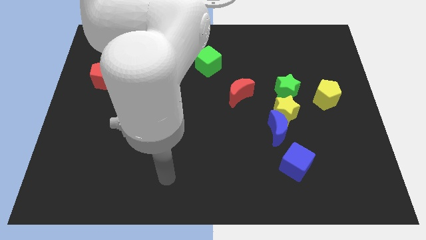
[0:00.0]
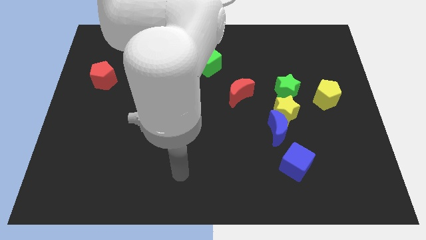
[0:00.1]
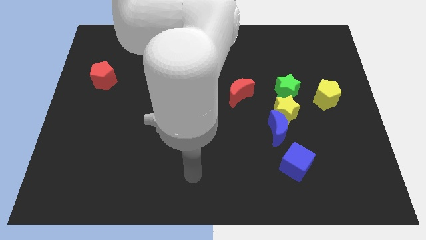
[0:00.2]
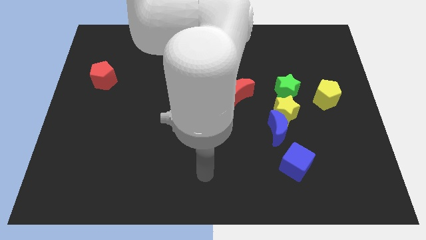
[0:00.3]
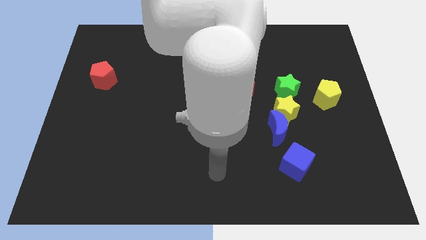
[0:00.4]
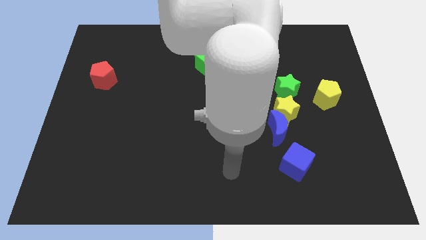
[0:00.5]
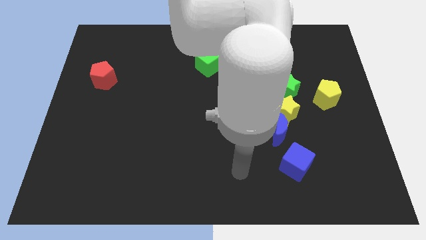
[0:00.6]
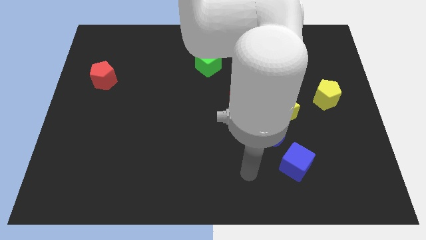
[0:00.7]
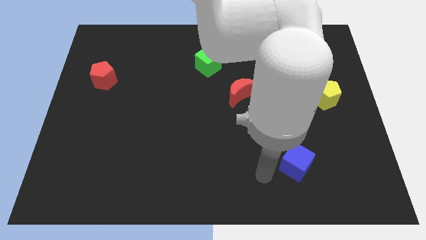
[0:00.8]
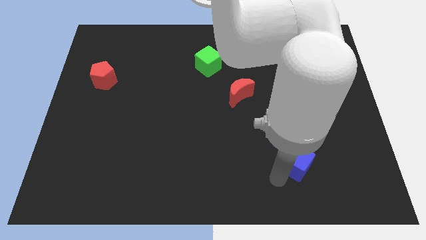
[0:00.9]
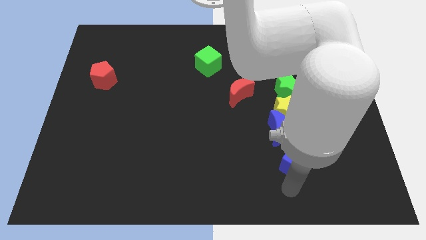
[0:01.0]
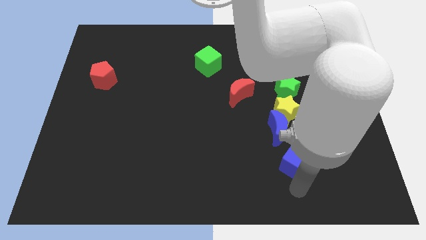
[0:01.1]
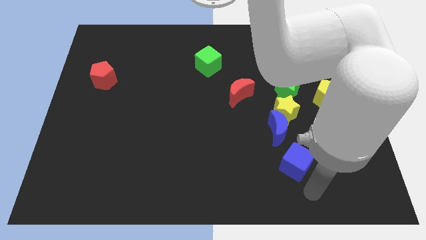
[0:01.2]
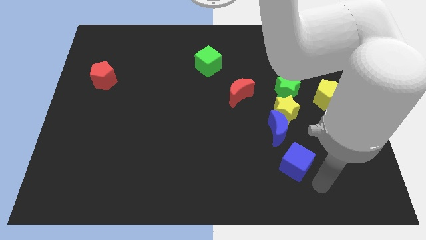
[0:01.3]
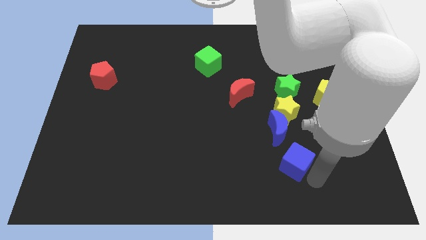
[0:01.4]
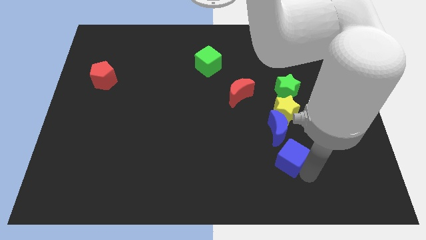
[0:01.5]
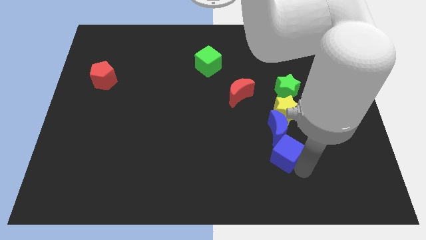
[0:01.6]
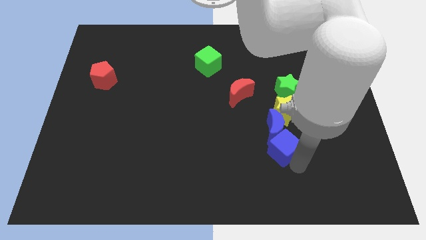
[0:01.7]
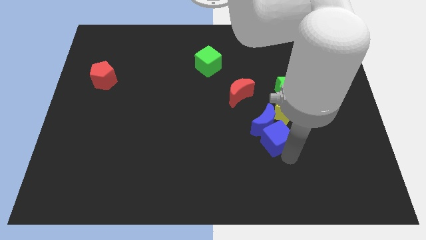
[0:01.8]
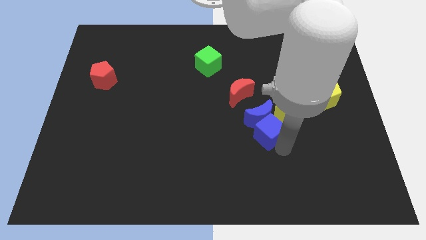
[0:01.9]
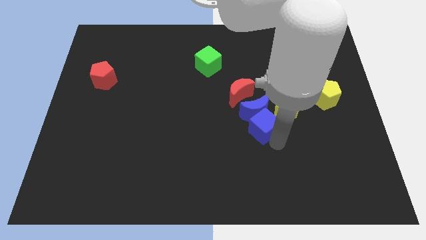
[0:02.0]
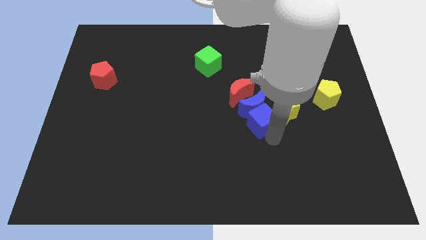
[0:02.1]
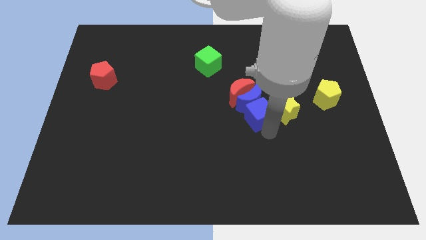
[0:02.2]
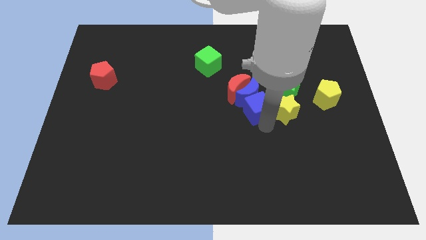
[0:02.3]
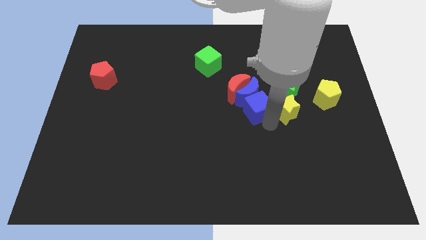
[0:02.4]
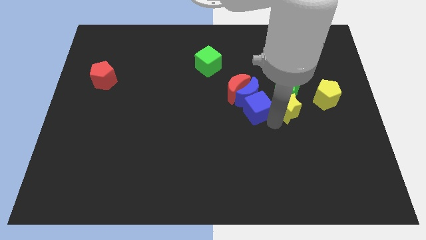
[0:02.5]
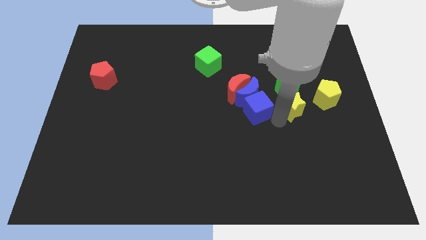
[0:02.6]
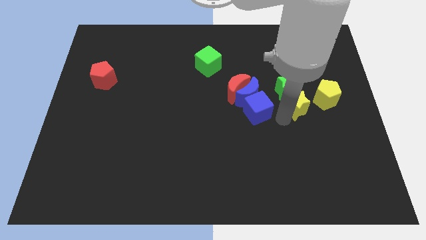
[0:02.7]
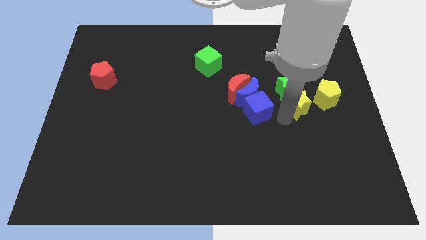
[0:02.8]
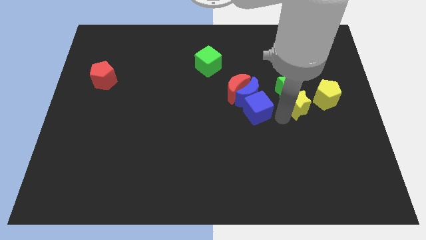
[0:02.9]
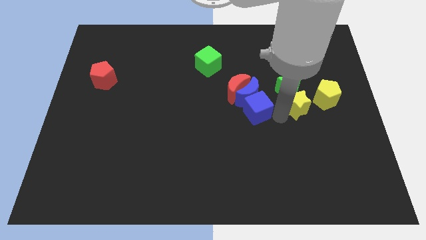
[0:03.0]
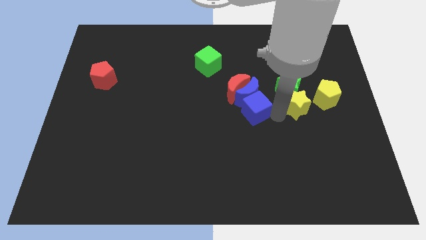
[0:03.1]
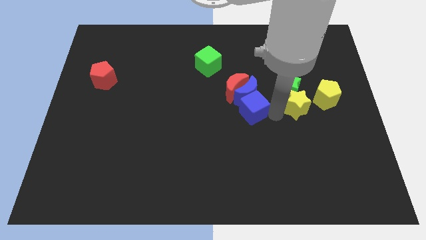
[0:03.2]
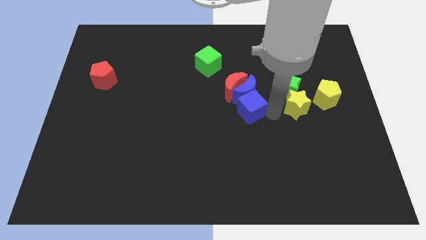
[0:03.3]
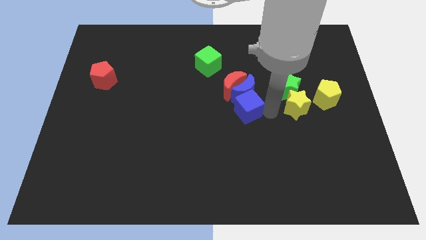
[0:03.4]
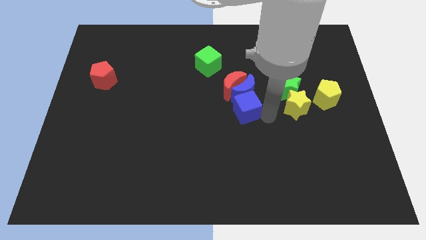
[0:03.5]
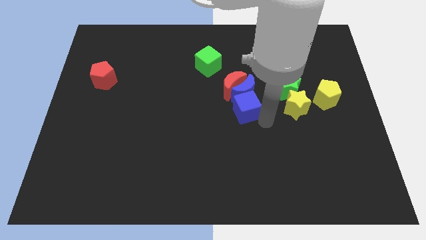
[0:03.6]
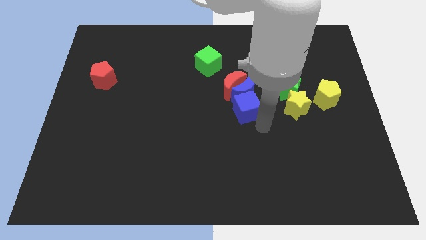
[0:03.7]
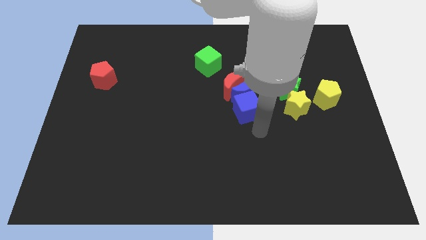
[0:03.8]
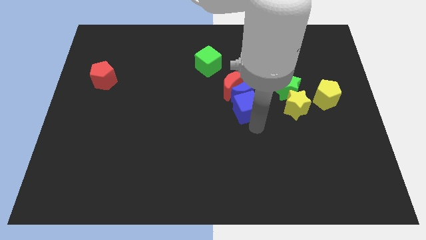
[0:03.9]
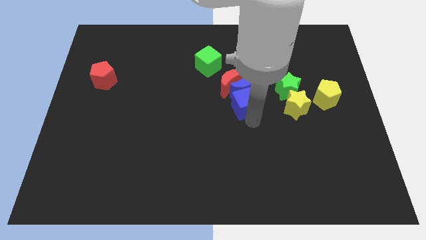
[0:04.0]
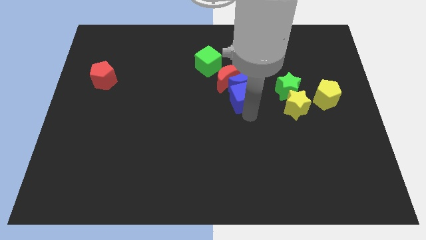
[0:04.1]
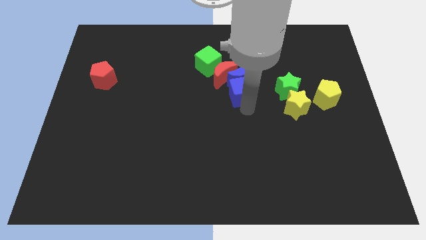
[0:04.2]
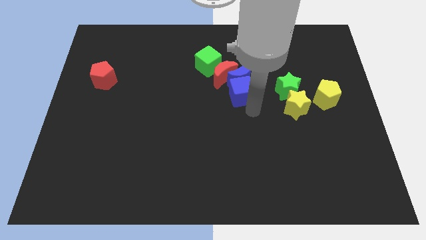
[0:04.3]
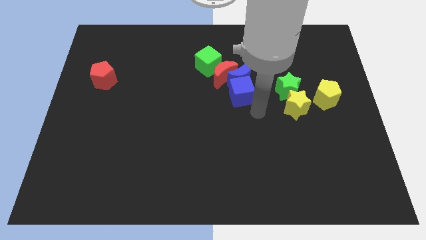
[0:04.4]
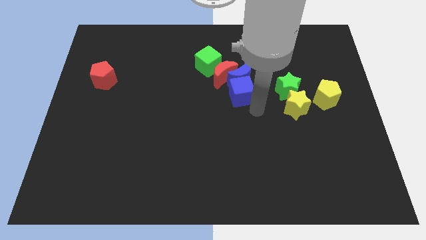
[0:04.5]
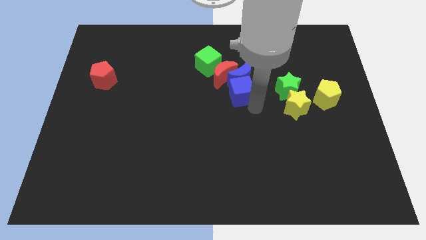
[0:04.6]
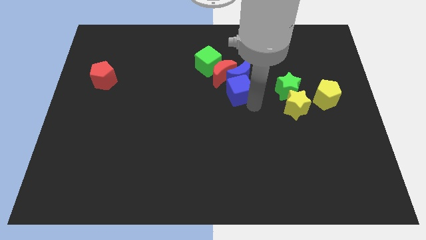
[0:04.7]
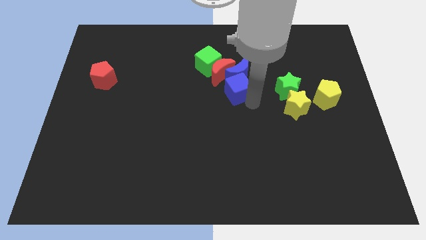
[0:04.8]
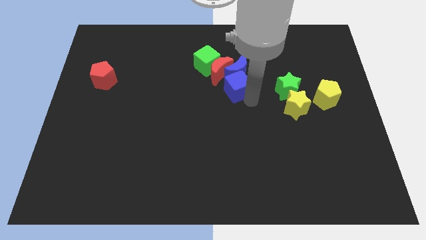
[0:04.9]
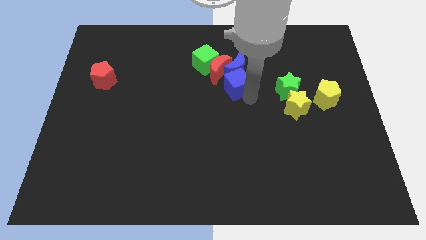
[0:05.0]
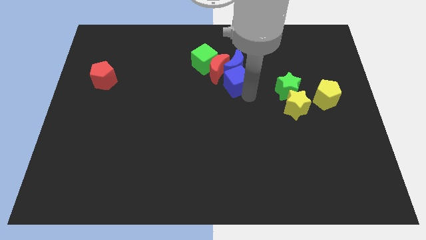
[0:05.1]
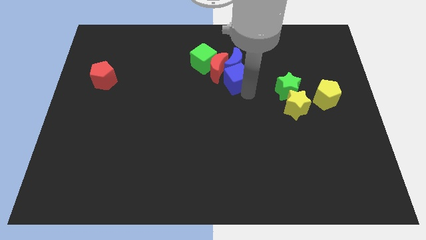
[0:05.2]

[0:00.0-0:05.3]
put the blue cube close to the red moon

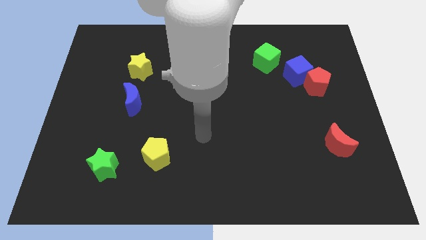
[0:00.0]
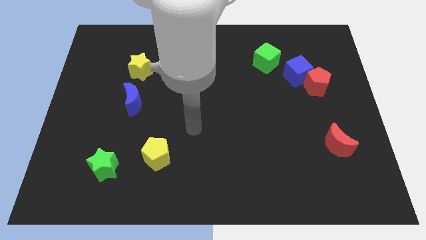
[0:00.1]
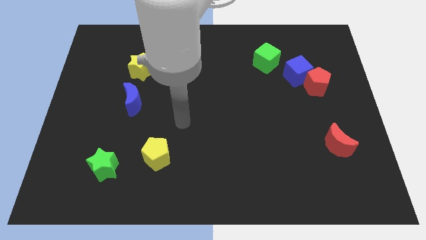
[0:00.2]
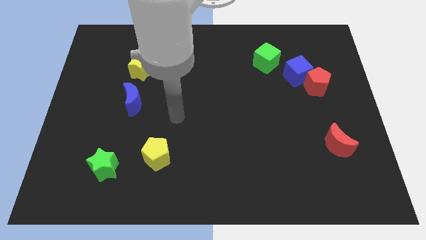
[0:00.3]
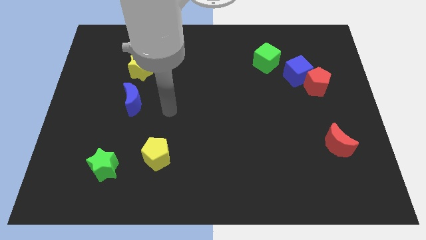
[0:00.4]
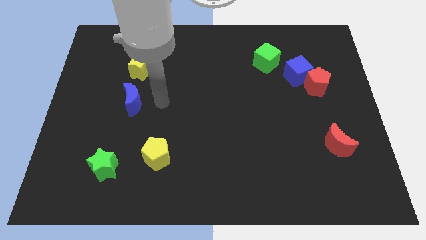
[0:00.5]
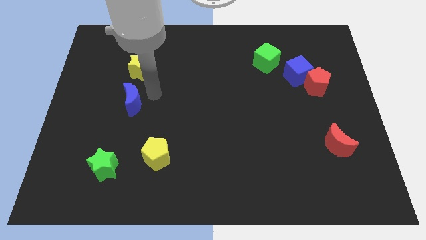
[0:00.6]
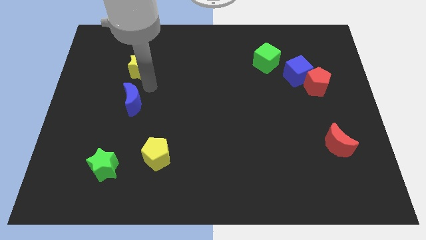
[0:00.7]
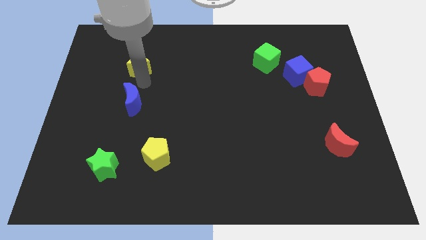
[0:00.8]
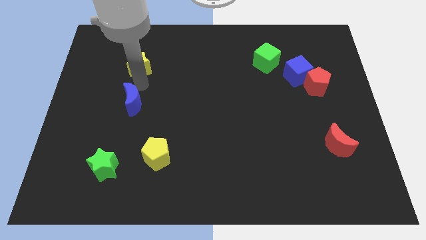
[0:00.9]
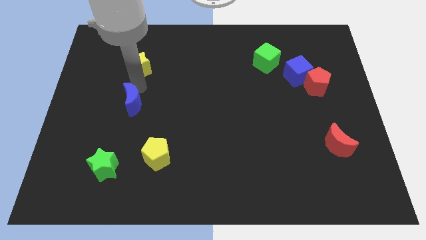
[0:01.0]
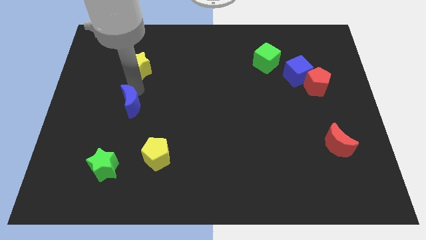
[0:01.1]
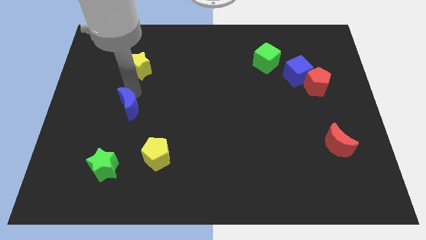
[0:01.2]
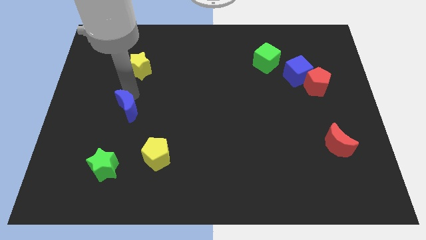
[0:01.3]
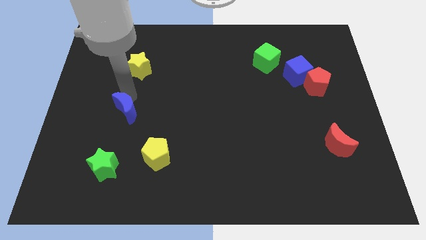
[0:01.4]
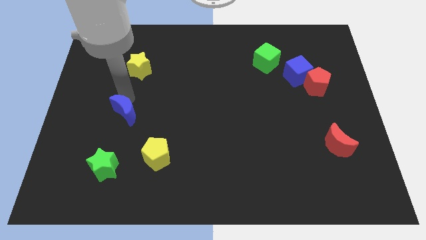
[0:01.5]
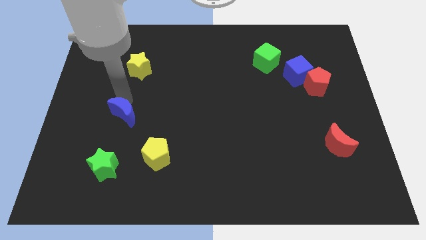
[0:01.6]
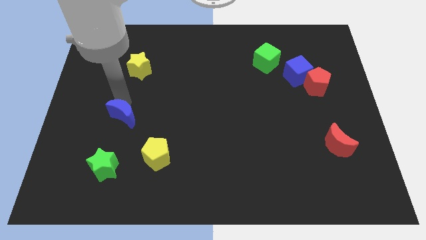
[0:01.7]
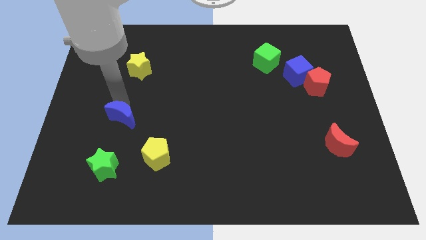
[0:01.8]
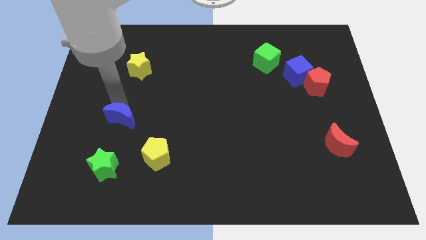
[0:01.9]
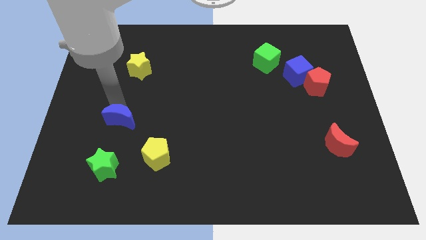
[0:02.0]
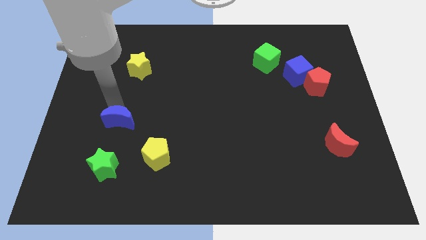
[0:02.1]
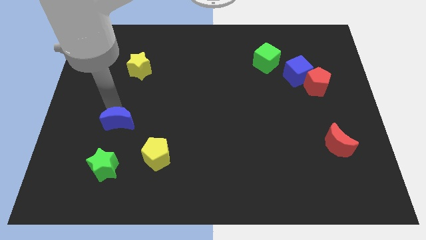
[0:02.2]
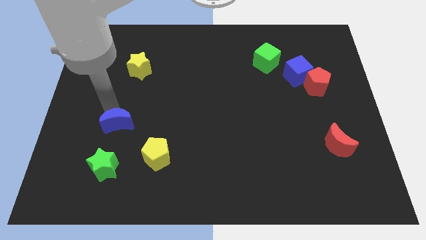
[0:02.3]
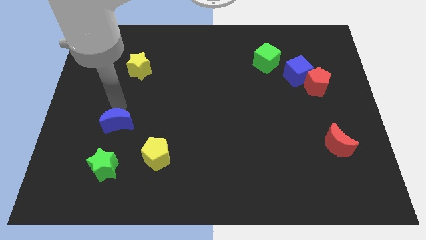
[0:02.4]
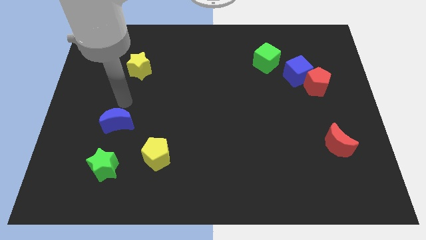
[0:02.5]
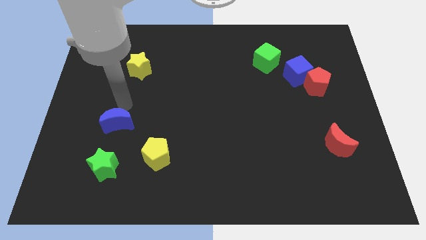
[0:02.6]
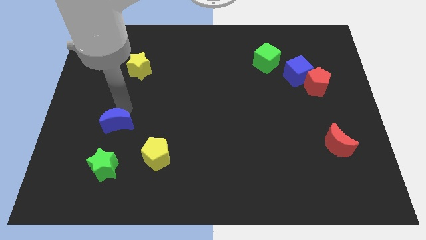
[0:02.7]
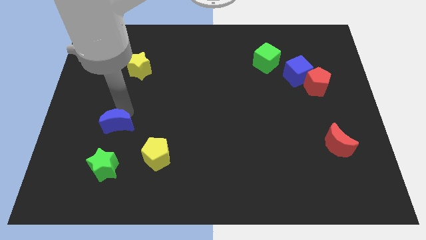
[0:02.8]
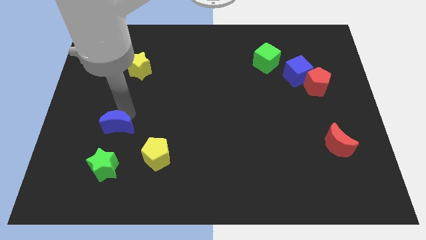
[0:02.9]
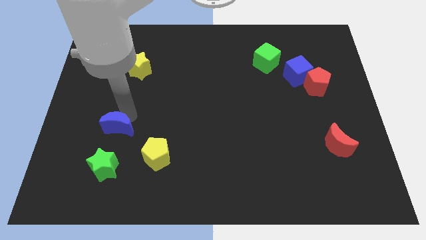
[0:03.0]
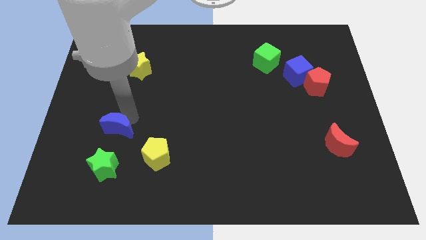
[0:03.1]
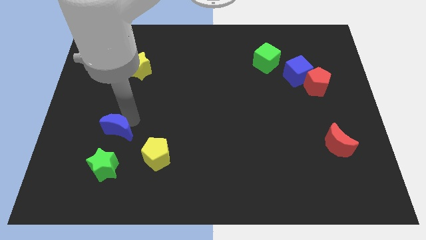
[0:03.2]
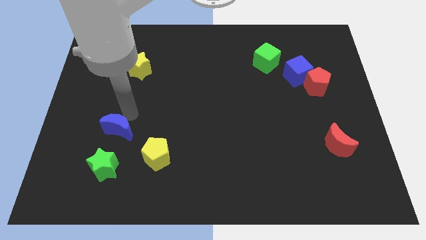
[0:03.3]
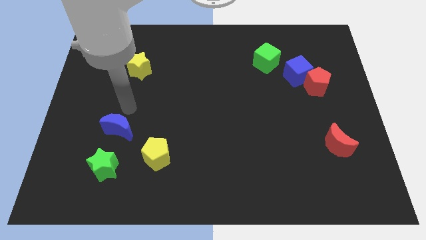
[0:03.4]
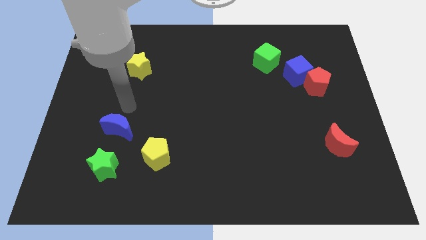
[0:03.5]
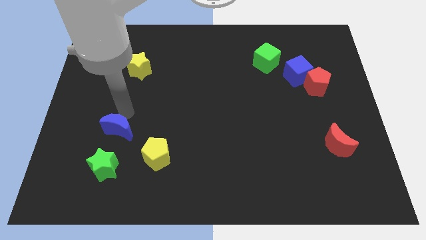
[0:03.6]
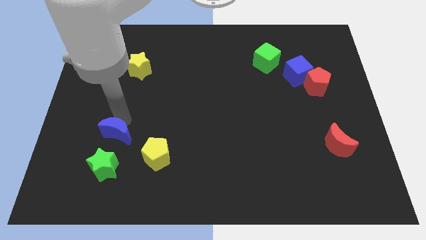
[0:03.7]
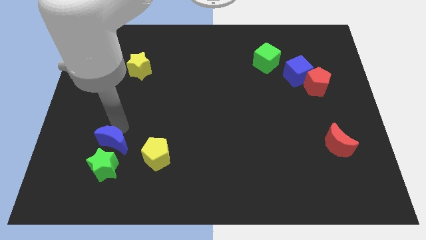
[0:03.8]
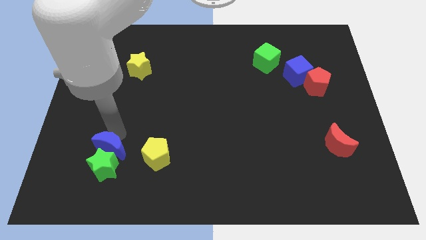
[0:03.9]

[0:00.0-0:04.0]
put the blue moon close to the green star
